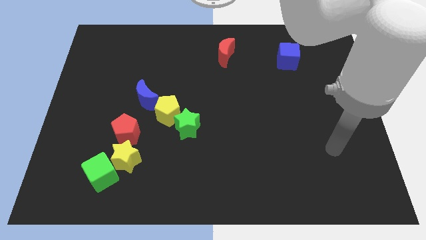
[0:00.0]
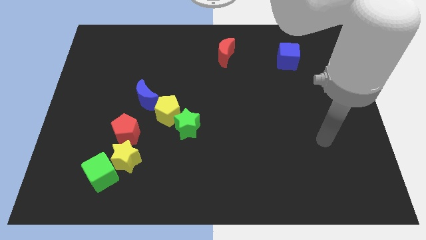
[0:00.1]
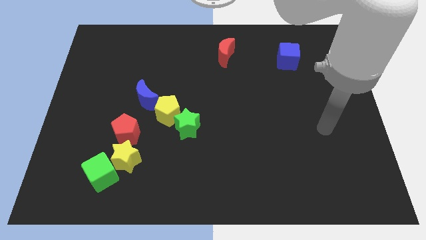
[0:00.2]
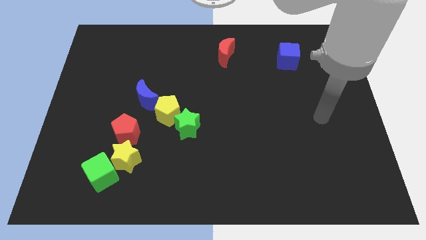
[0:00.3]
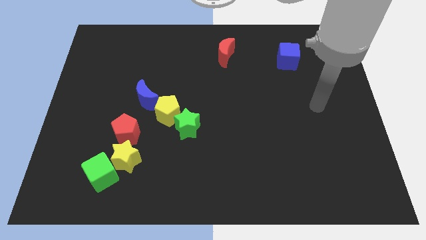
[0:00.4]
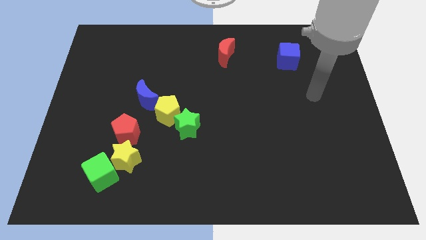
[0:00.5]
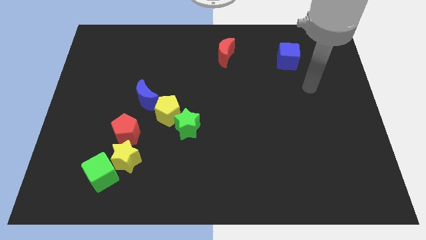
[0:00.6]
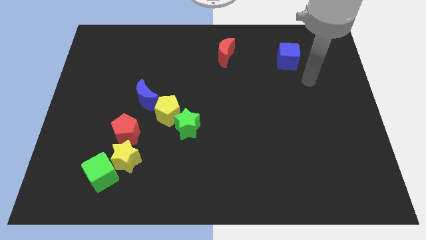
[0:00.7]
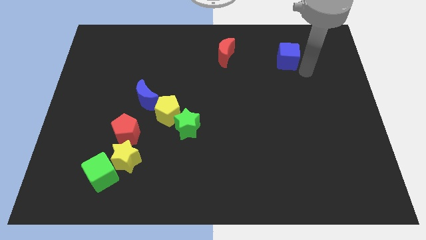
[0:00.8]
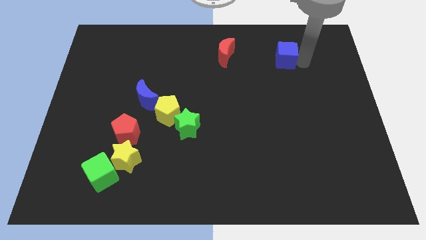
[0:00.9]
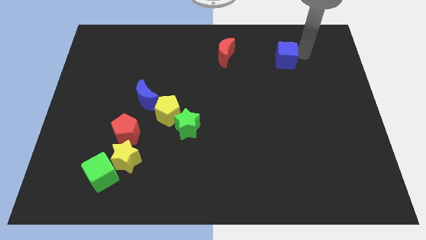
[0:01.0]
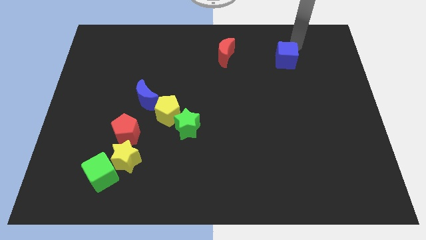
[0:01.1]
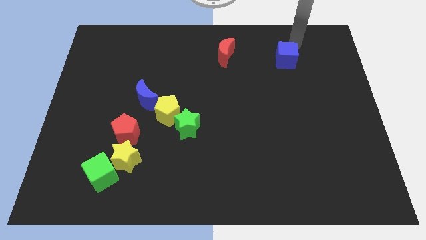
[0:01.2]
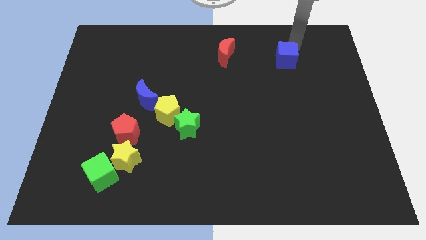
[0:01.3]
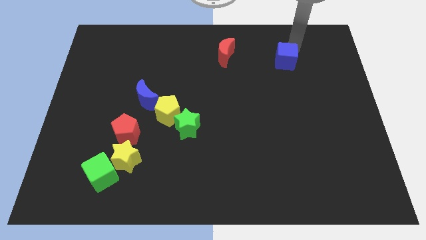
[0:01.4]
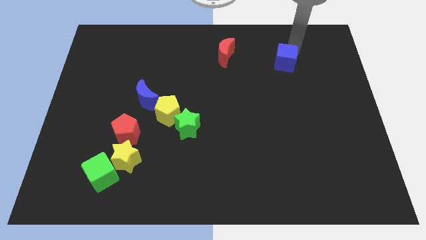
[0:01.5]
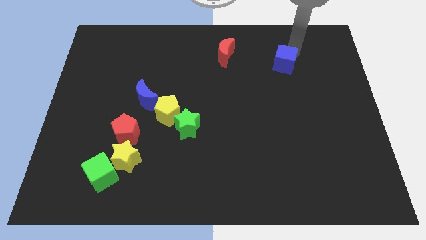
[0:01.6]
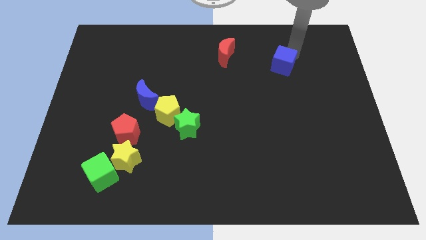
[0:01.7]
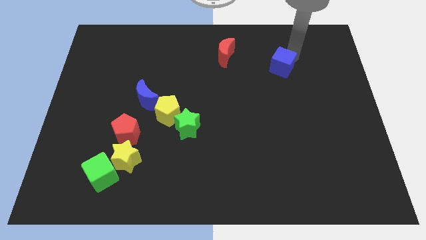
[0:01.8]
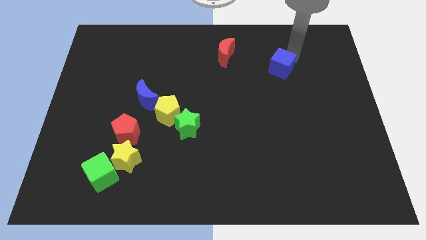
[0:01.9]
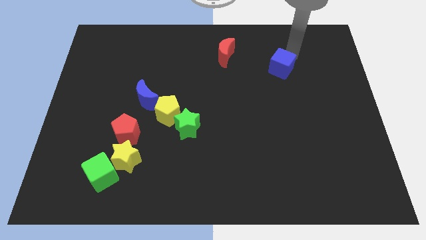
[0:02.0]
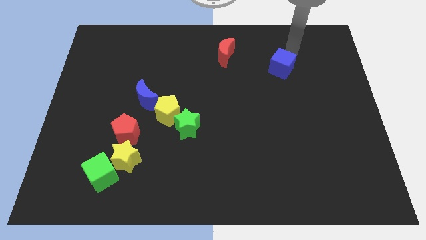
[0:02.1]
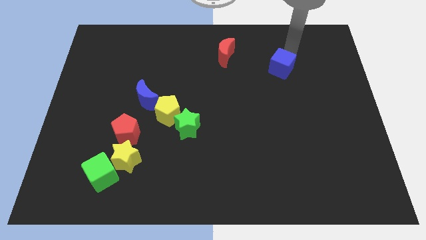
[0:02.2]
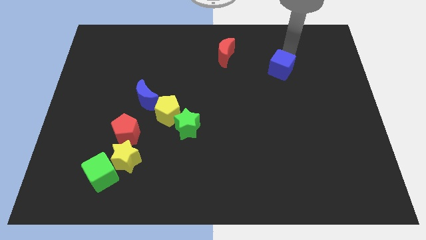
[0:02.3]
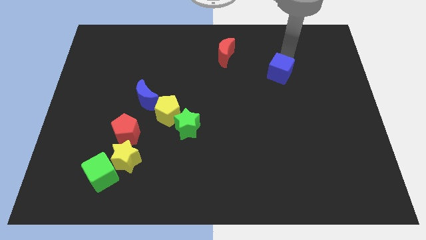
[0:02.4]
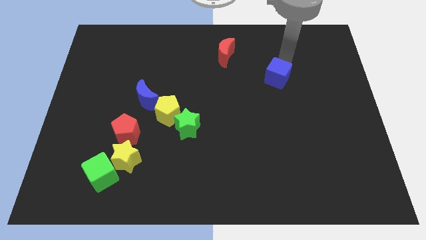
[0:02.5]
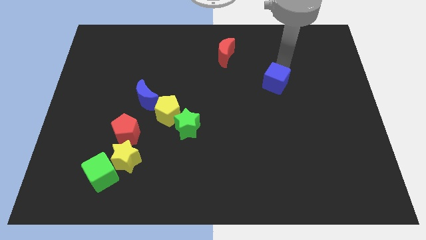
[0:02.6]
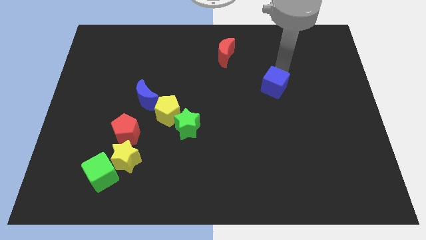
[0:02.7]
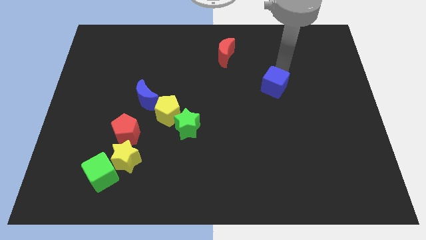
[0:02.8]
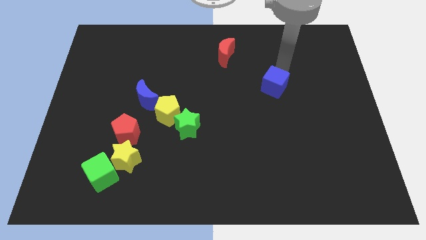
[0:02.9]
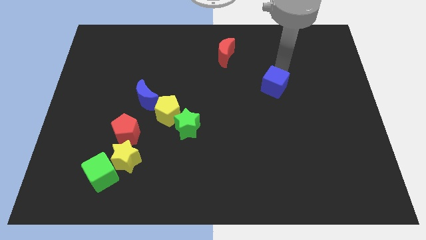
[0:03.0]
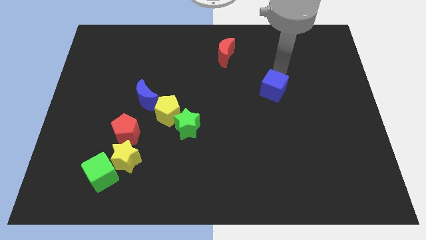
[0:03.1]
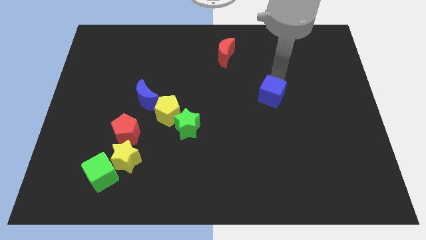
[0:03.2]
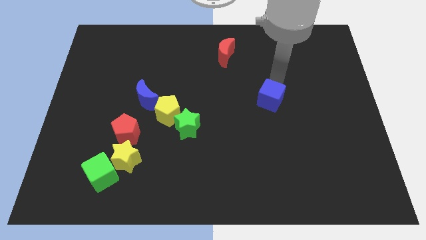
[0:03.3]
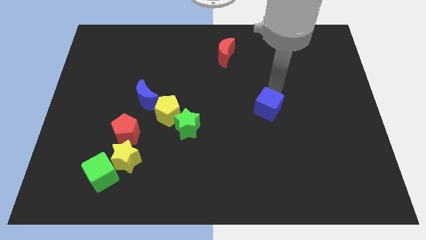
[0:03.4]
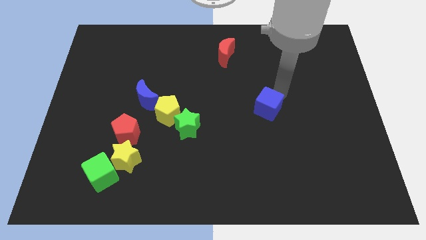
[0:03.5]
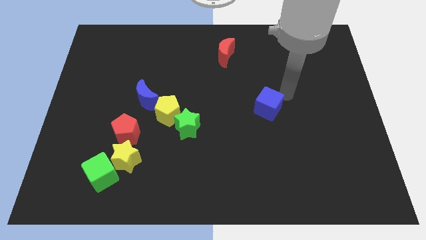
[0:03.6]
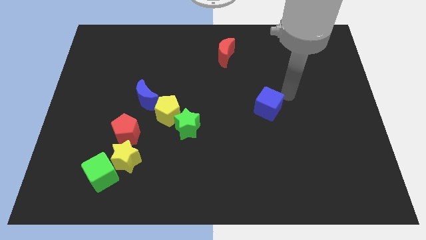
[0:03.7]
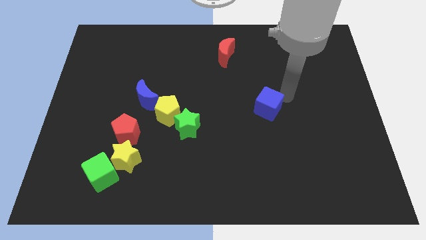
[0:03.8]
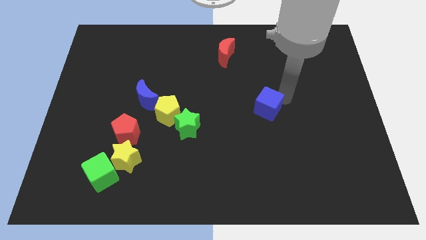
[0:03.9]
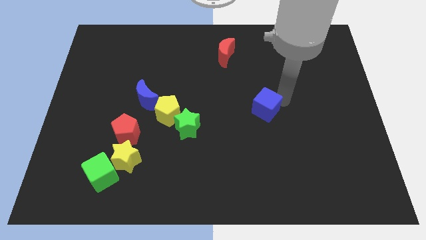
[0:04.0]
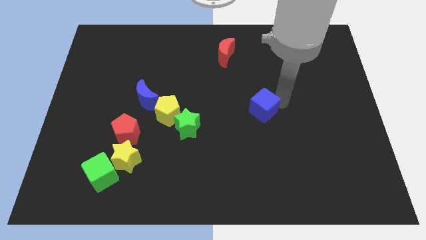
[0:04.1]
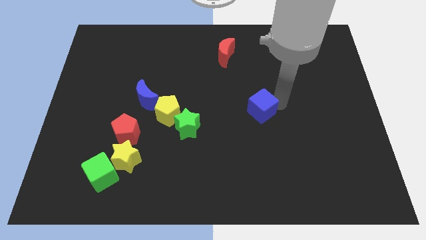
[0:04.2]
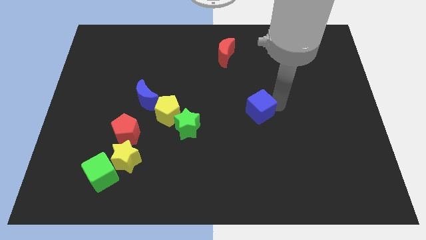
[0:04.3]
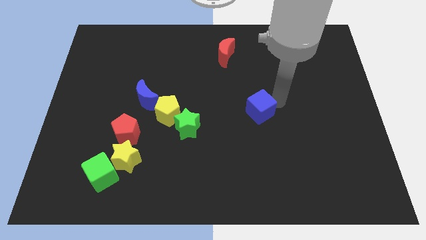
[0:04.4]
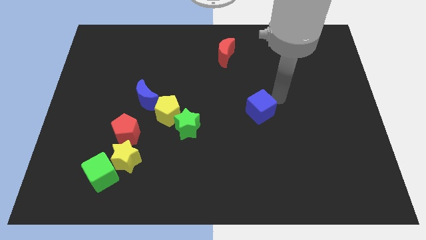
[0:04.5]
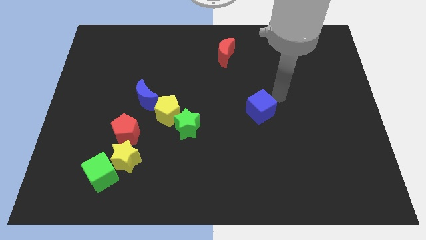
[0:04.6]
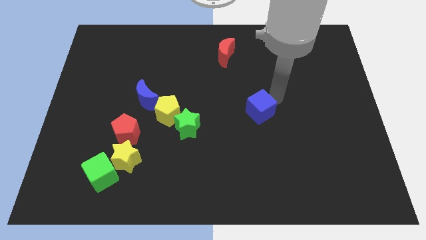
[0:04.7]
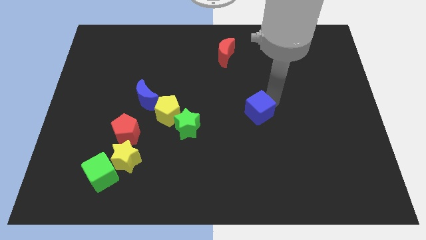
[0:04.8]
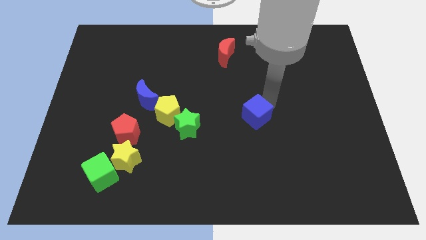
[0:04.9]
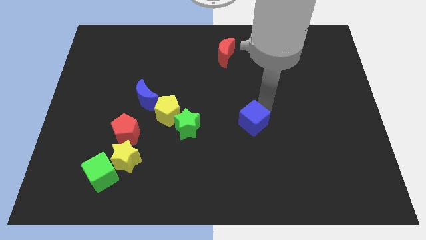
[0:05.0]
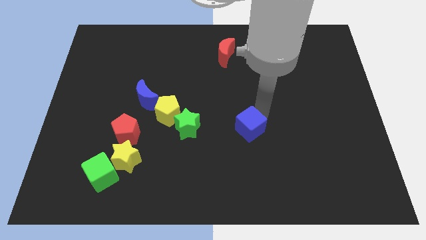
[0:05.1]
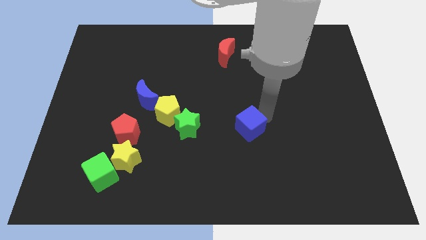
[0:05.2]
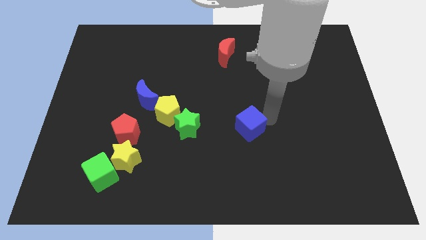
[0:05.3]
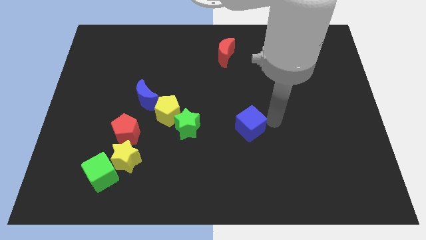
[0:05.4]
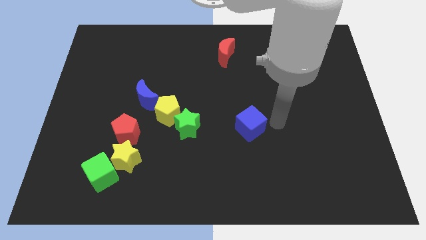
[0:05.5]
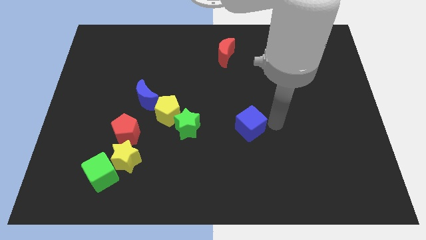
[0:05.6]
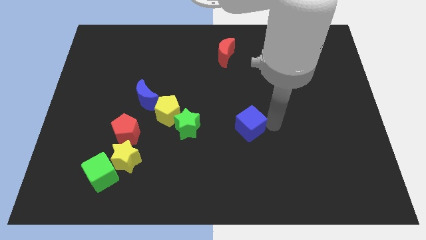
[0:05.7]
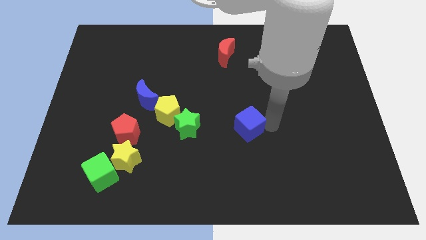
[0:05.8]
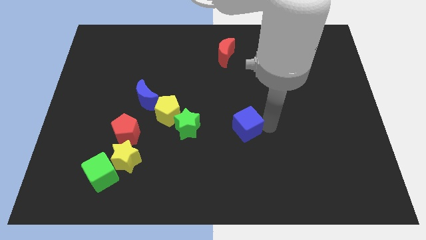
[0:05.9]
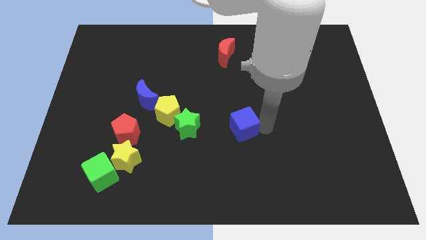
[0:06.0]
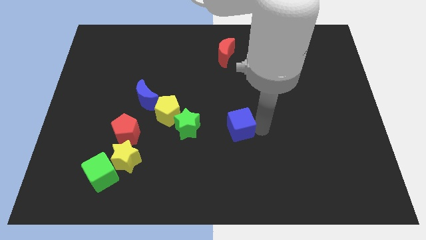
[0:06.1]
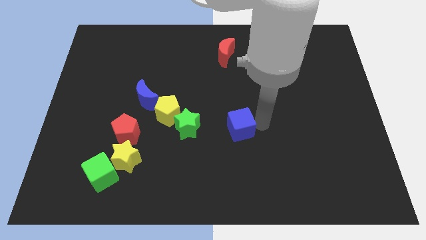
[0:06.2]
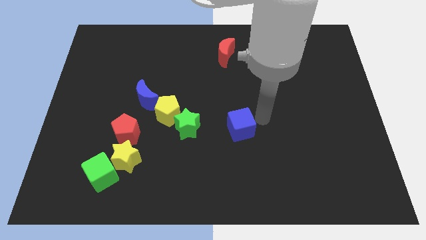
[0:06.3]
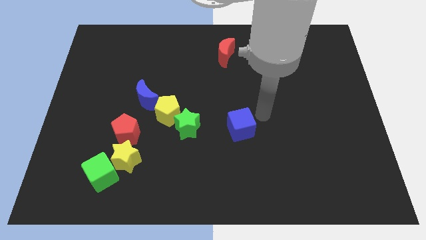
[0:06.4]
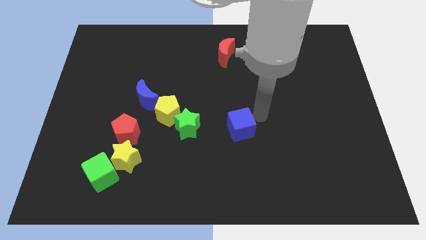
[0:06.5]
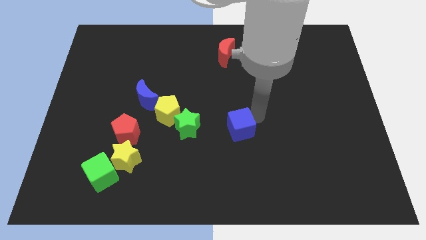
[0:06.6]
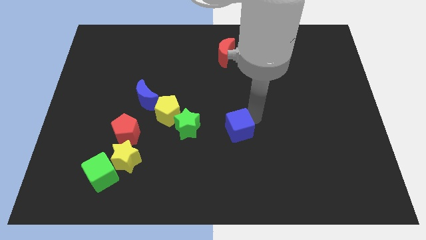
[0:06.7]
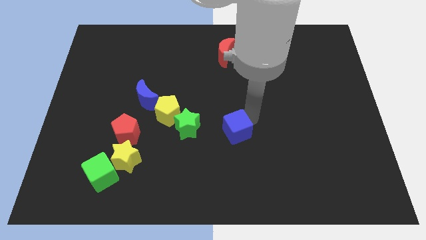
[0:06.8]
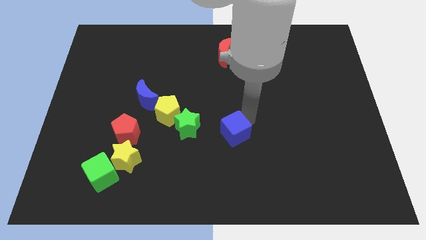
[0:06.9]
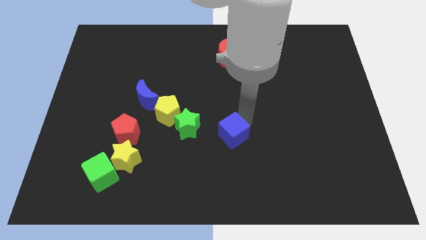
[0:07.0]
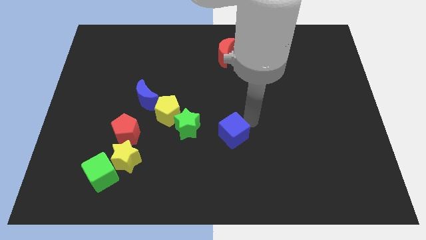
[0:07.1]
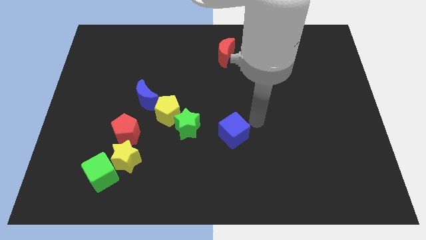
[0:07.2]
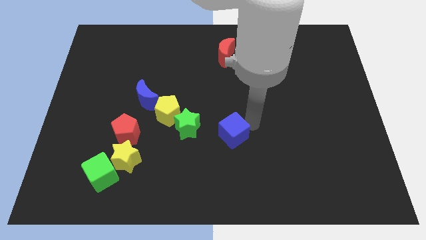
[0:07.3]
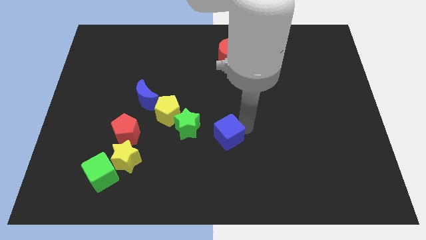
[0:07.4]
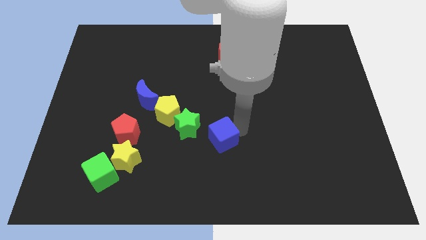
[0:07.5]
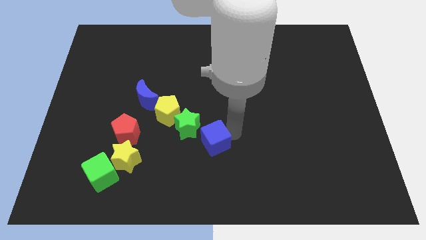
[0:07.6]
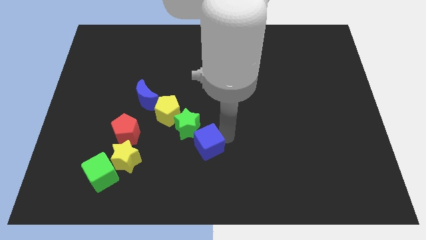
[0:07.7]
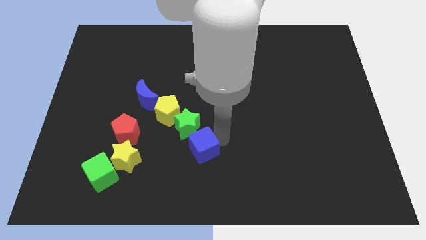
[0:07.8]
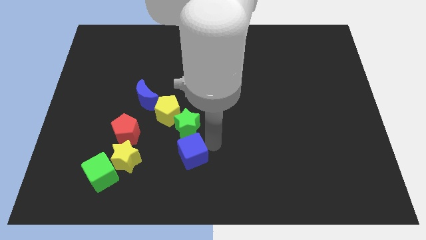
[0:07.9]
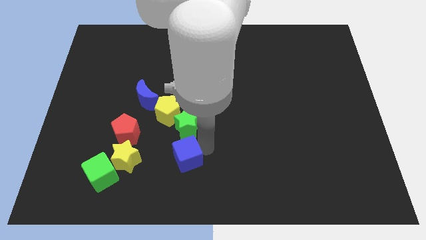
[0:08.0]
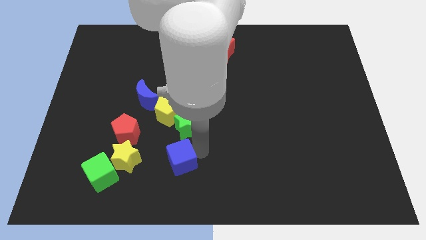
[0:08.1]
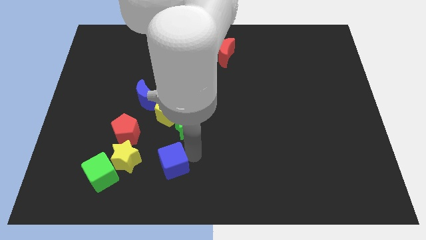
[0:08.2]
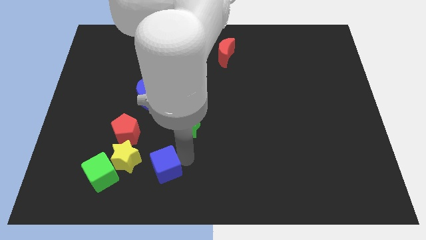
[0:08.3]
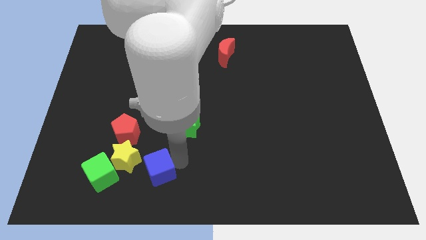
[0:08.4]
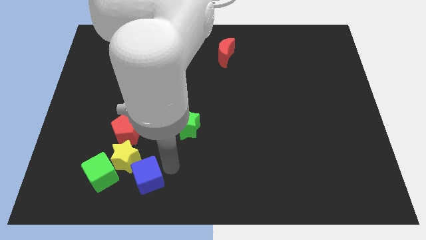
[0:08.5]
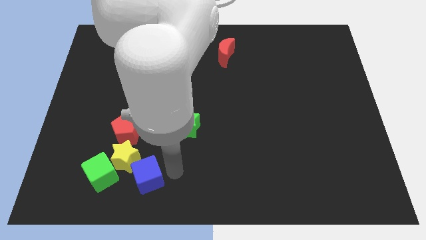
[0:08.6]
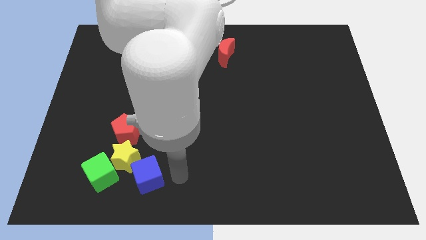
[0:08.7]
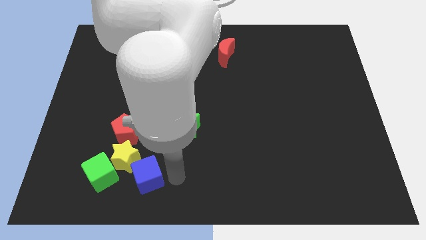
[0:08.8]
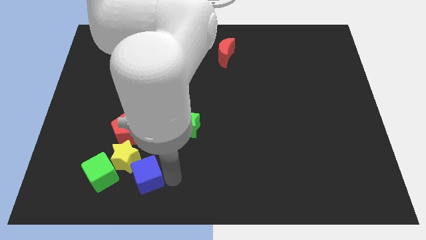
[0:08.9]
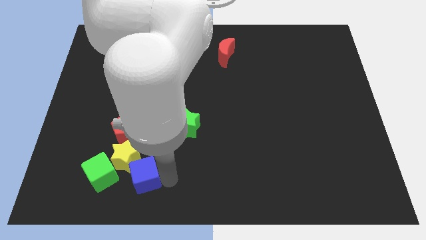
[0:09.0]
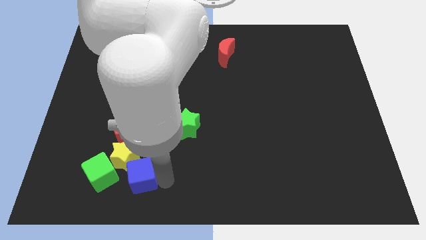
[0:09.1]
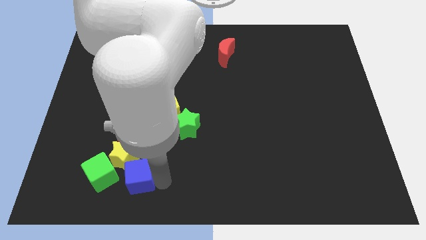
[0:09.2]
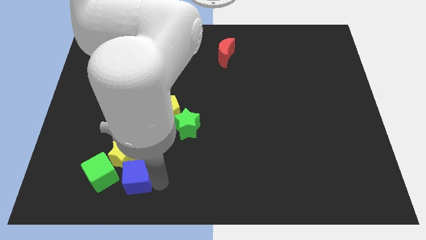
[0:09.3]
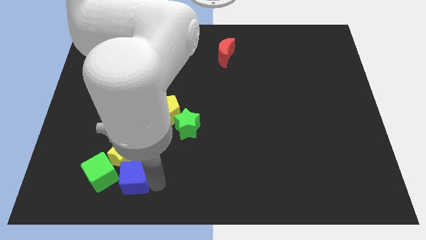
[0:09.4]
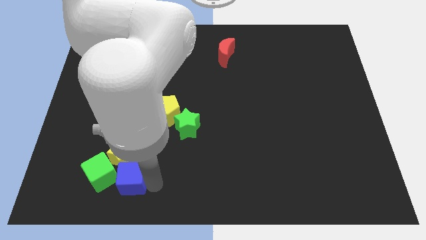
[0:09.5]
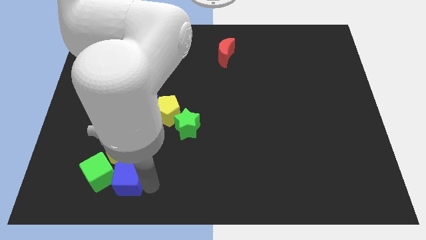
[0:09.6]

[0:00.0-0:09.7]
slide the blue cube towards the green cube
